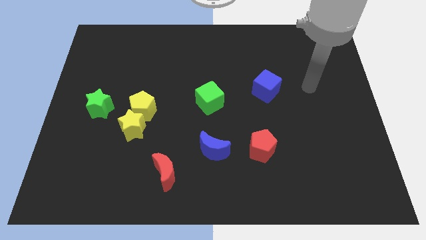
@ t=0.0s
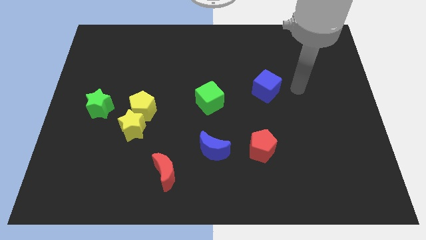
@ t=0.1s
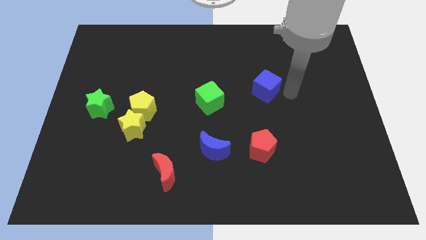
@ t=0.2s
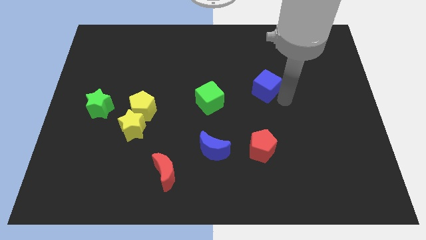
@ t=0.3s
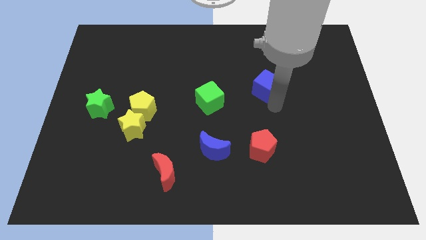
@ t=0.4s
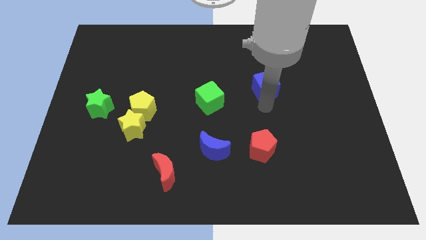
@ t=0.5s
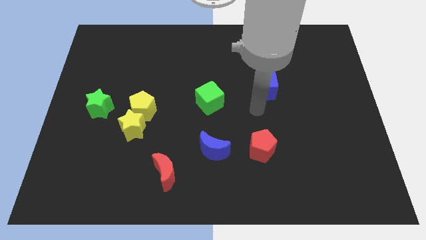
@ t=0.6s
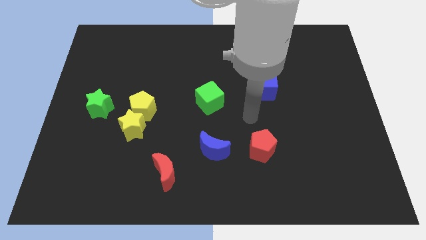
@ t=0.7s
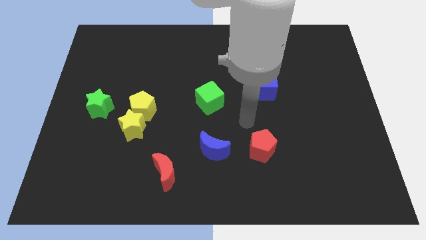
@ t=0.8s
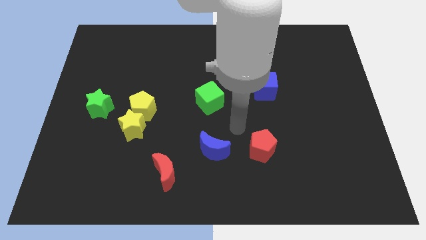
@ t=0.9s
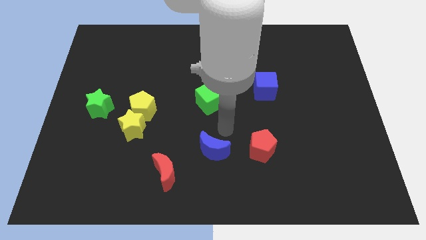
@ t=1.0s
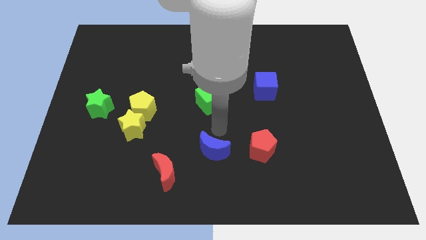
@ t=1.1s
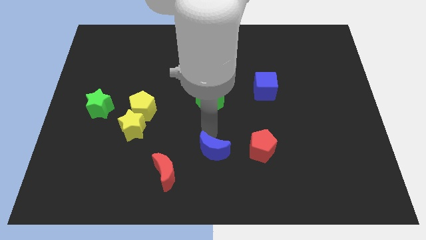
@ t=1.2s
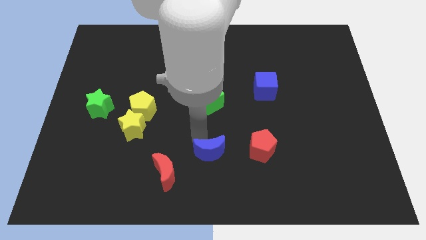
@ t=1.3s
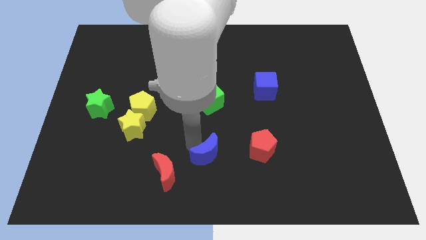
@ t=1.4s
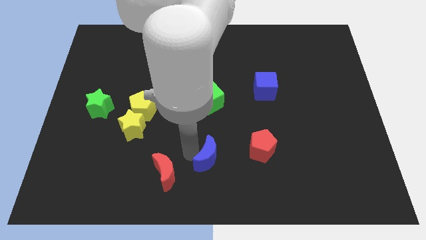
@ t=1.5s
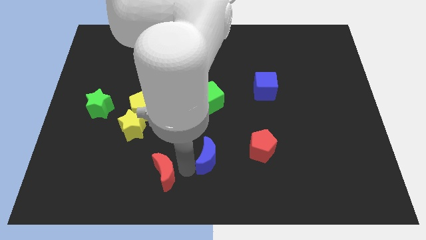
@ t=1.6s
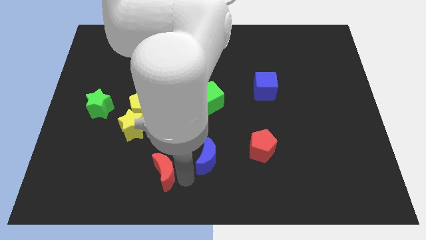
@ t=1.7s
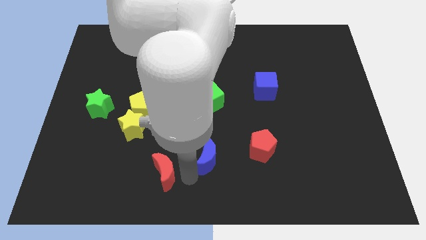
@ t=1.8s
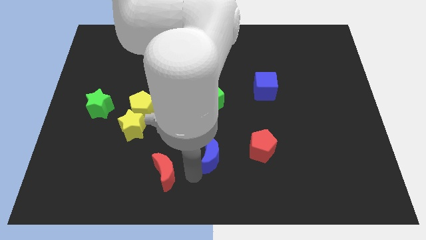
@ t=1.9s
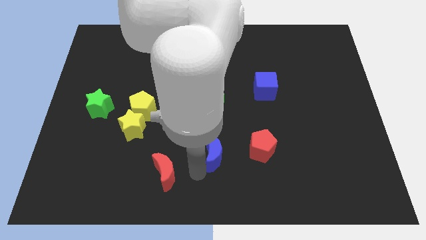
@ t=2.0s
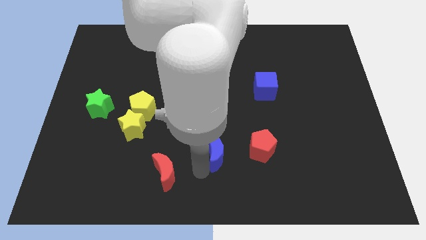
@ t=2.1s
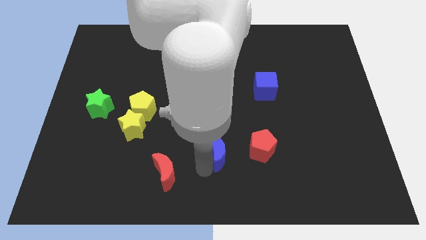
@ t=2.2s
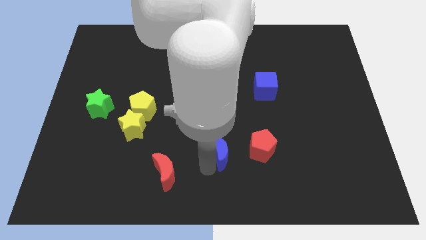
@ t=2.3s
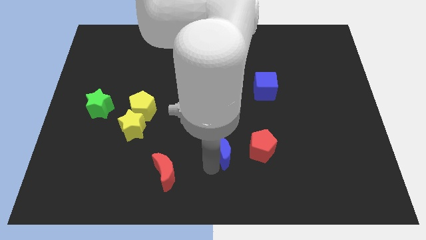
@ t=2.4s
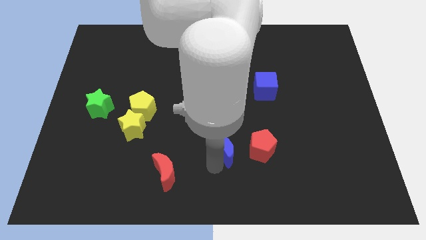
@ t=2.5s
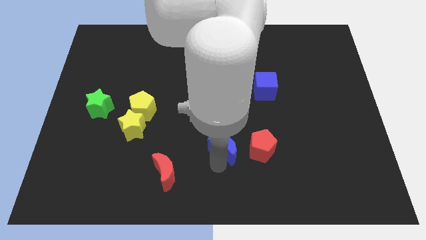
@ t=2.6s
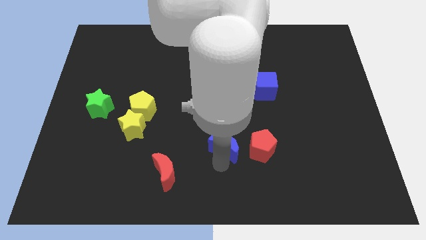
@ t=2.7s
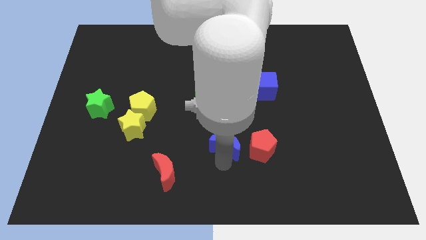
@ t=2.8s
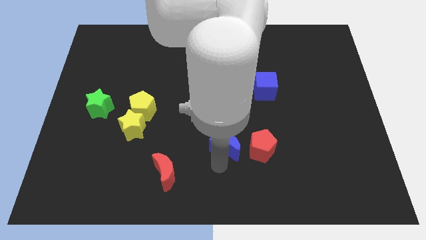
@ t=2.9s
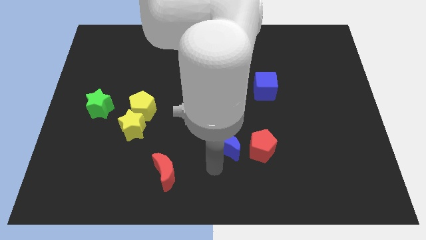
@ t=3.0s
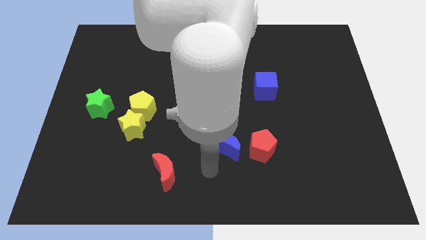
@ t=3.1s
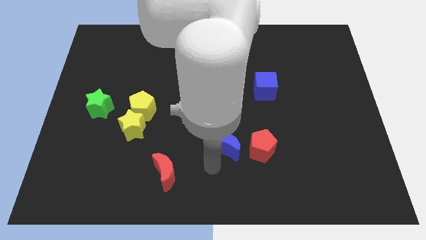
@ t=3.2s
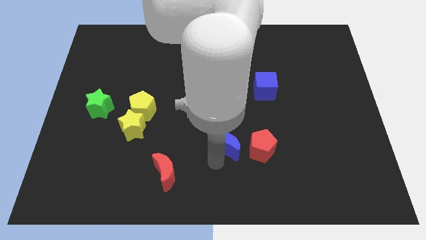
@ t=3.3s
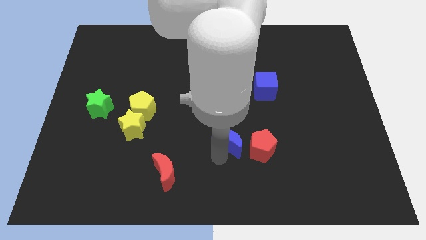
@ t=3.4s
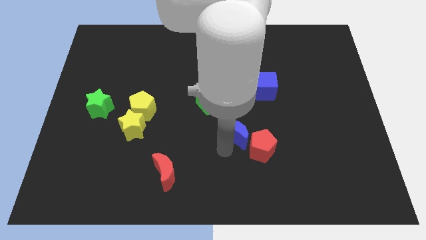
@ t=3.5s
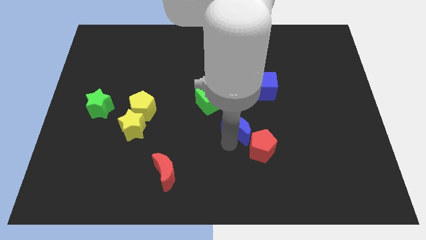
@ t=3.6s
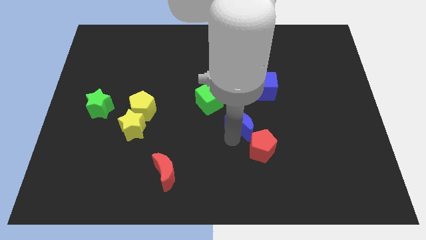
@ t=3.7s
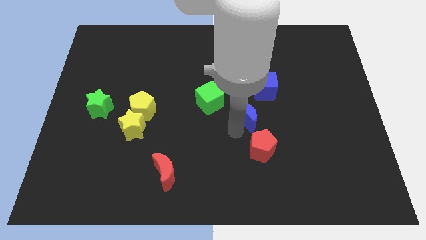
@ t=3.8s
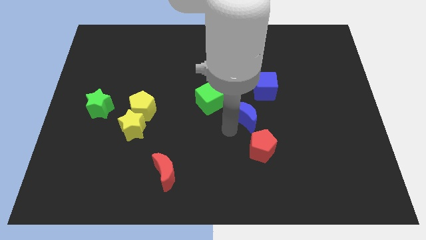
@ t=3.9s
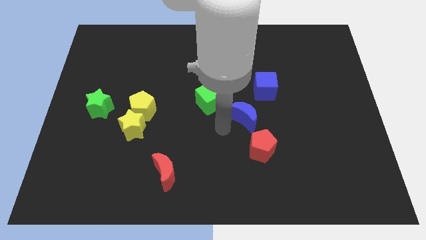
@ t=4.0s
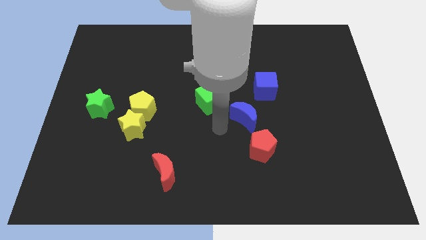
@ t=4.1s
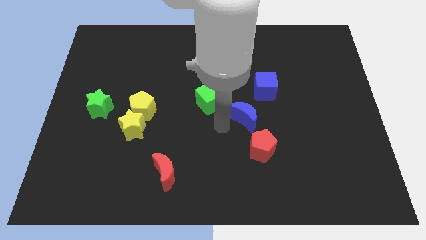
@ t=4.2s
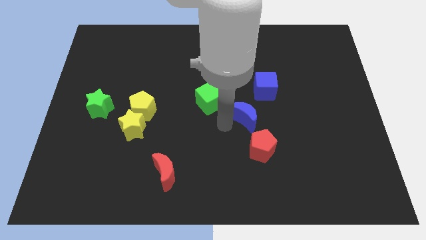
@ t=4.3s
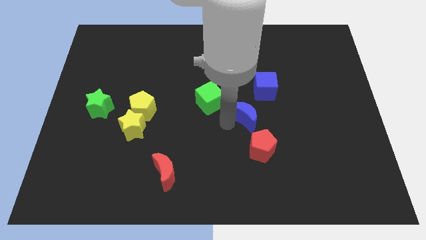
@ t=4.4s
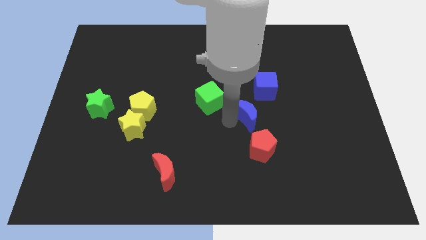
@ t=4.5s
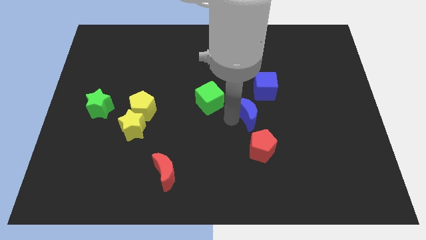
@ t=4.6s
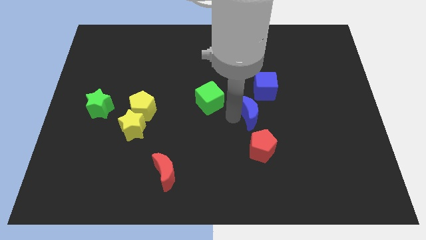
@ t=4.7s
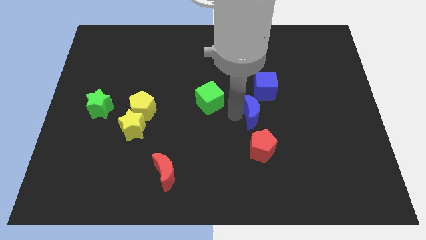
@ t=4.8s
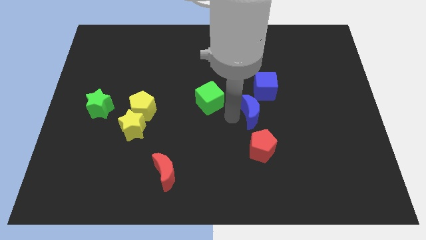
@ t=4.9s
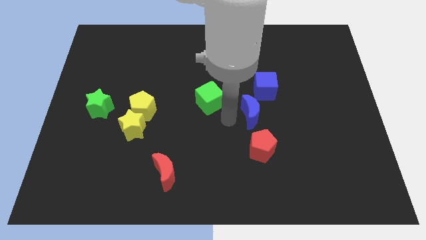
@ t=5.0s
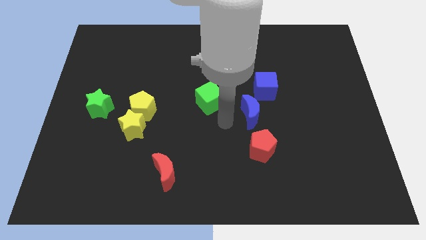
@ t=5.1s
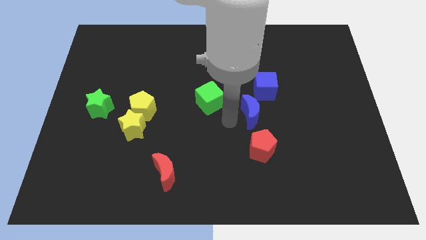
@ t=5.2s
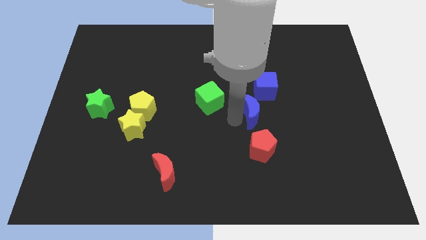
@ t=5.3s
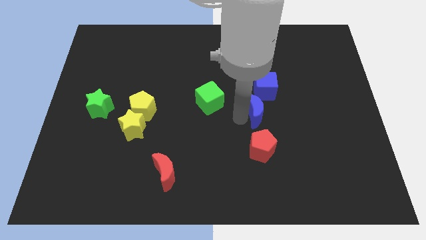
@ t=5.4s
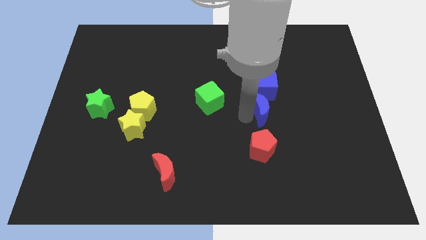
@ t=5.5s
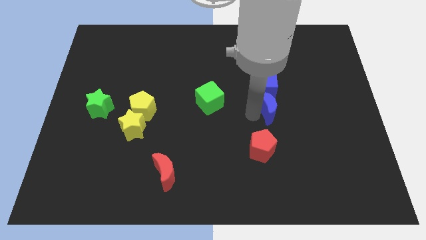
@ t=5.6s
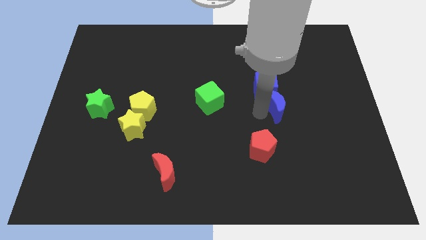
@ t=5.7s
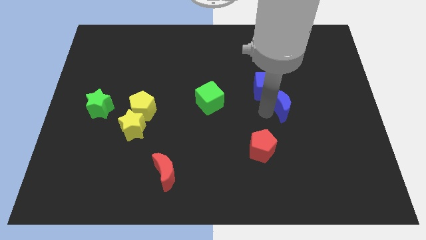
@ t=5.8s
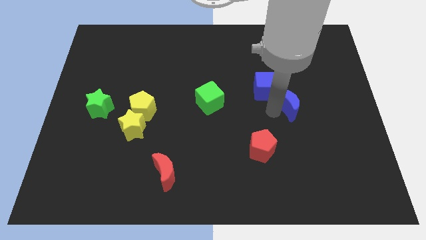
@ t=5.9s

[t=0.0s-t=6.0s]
slide the blue moon diagonally up and right

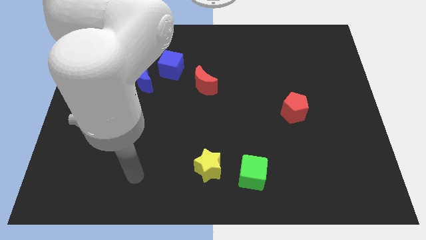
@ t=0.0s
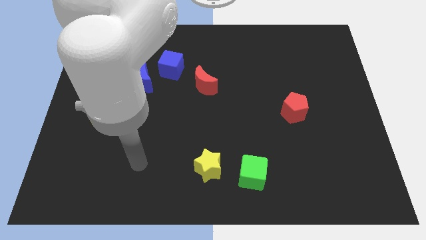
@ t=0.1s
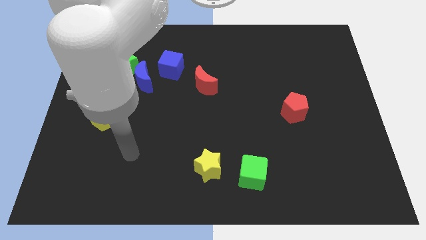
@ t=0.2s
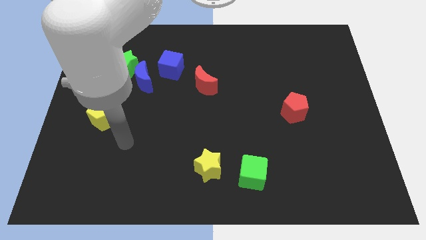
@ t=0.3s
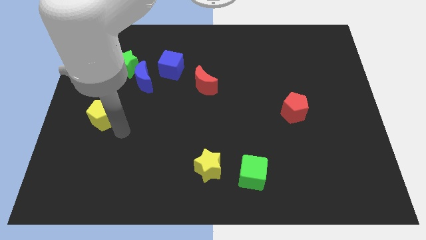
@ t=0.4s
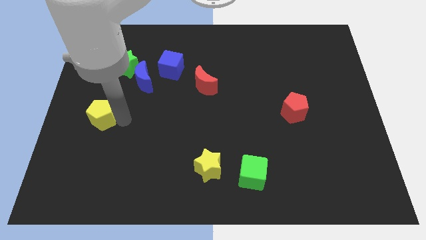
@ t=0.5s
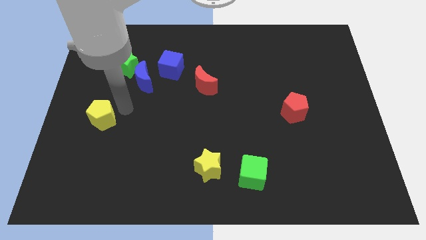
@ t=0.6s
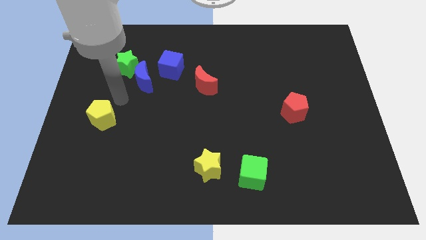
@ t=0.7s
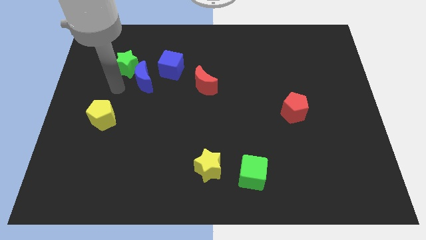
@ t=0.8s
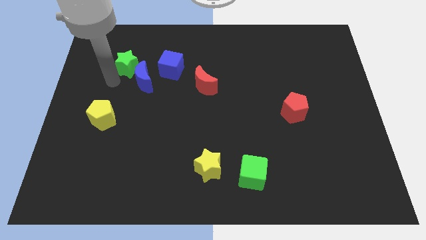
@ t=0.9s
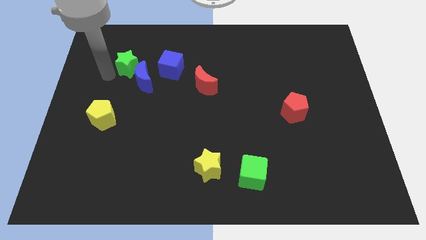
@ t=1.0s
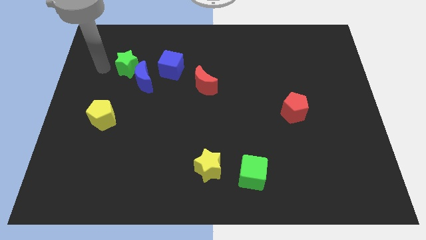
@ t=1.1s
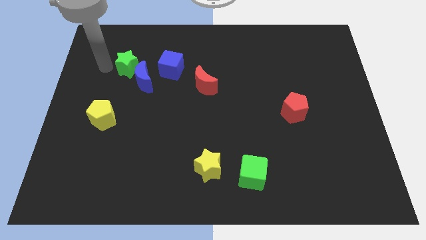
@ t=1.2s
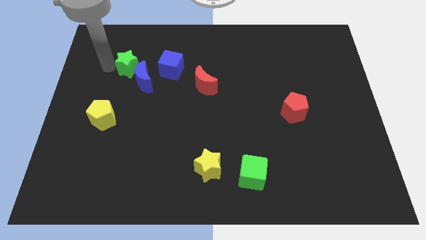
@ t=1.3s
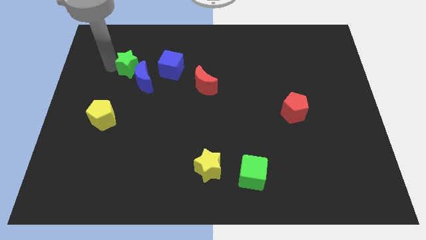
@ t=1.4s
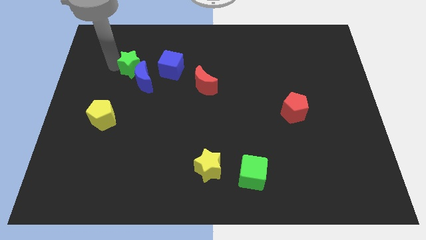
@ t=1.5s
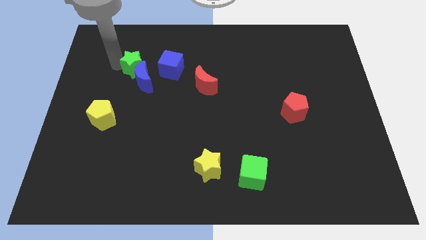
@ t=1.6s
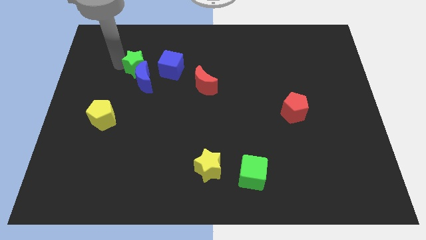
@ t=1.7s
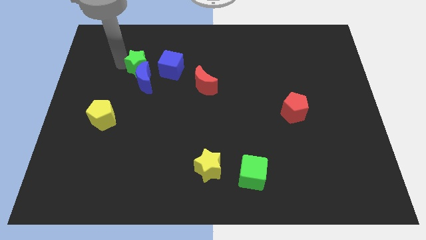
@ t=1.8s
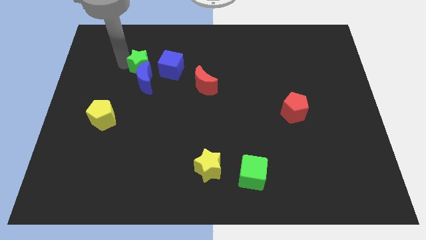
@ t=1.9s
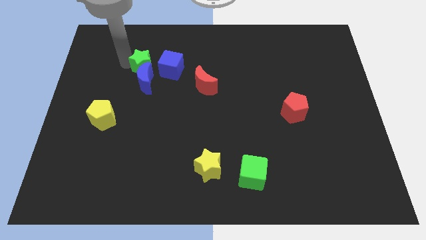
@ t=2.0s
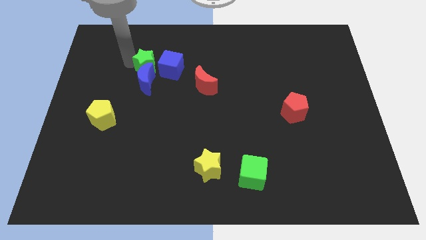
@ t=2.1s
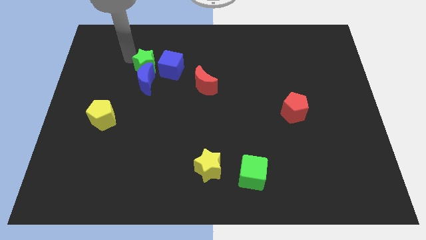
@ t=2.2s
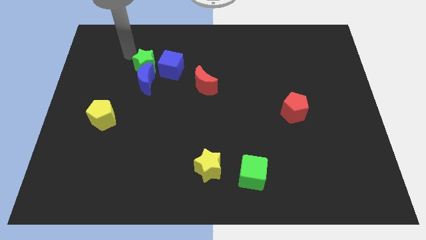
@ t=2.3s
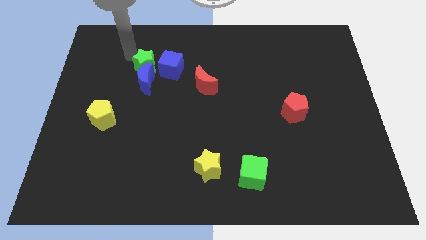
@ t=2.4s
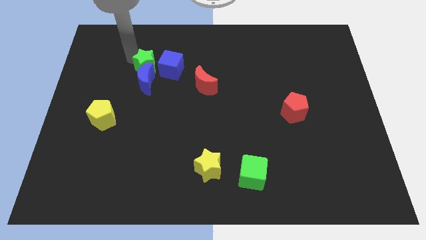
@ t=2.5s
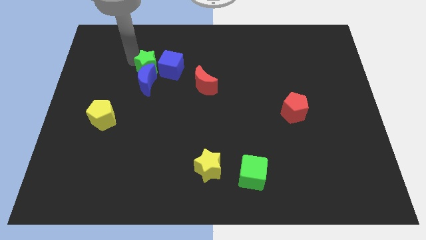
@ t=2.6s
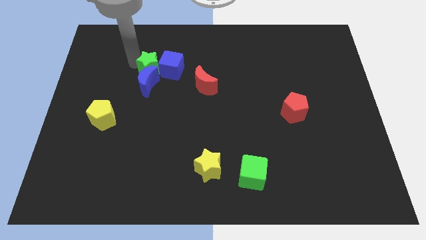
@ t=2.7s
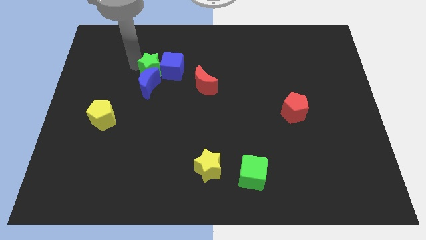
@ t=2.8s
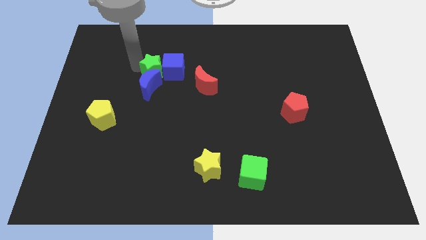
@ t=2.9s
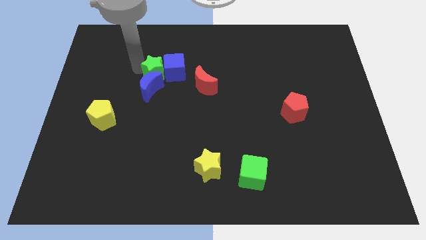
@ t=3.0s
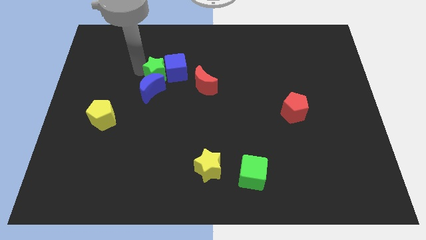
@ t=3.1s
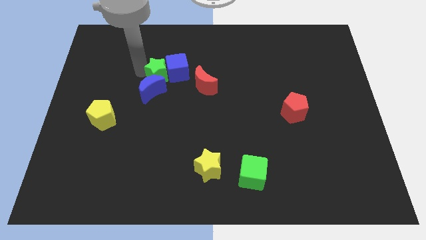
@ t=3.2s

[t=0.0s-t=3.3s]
slide the green star slightly downwards and right diagonally
